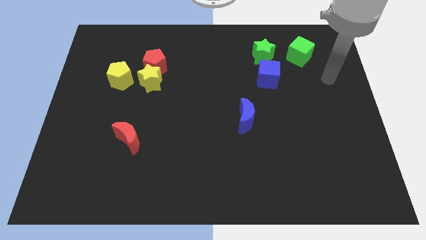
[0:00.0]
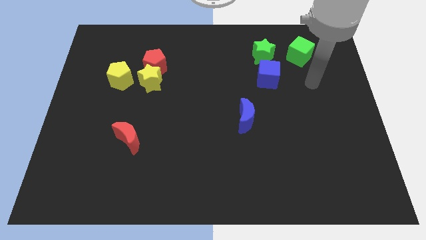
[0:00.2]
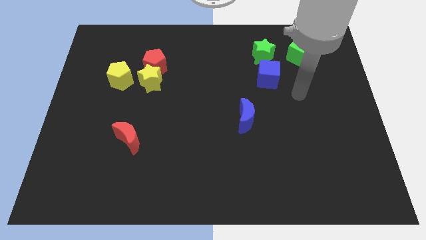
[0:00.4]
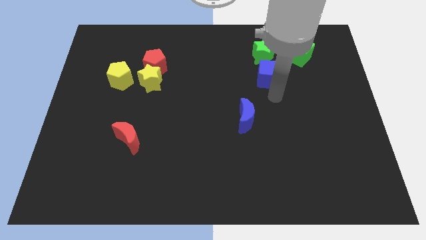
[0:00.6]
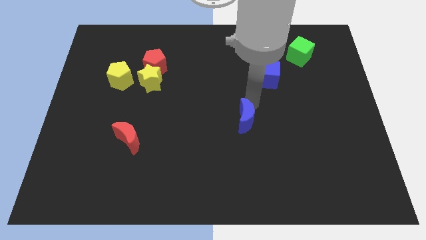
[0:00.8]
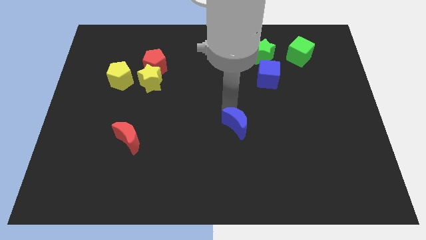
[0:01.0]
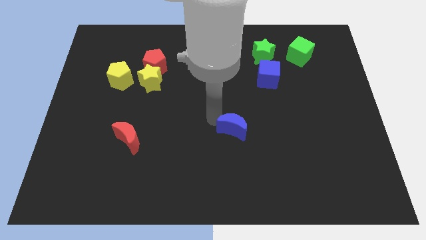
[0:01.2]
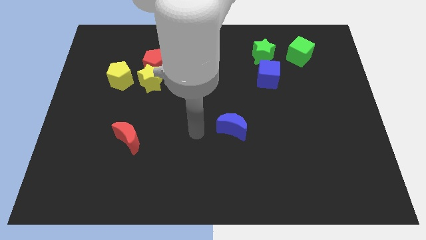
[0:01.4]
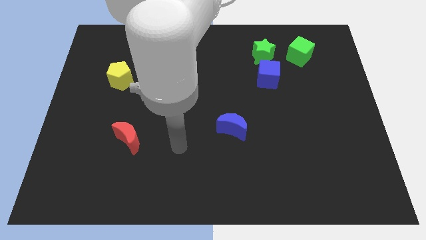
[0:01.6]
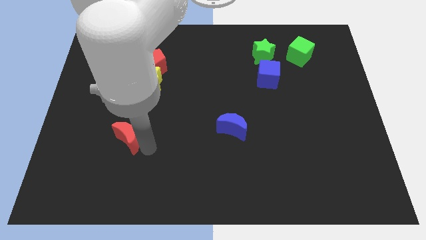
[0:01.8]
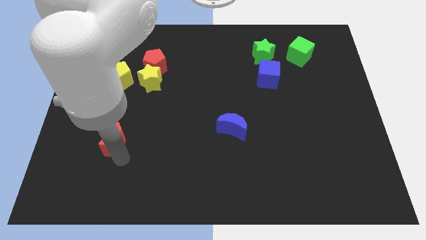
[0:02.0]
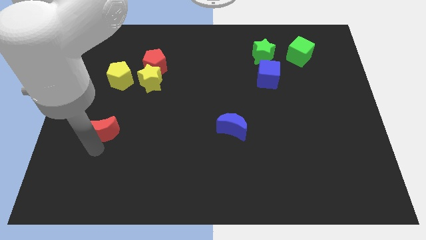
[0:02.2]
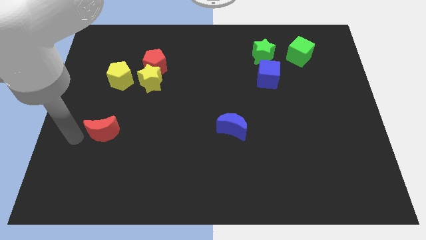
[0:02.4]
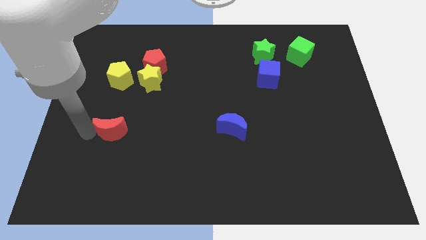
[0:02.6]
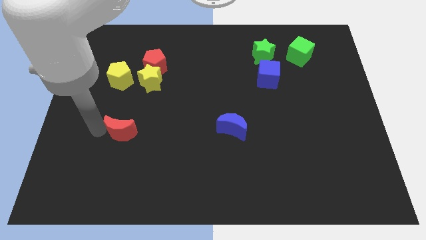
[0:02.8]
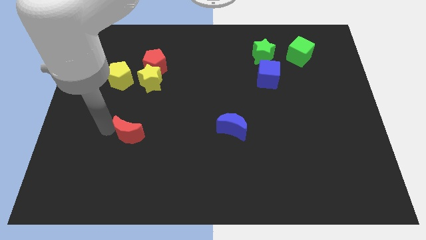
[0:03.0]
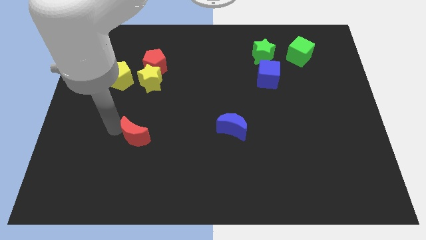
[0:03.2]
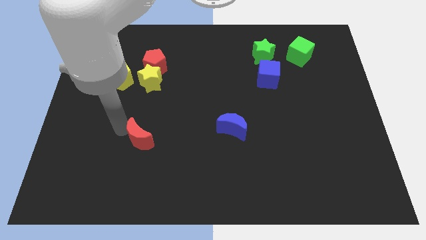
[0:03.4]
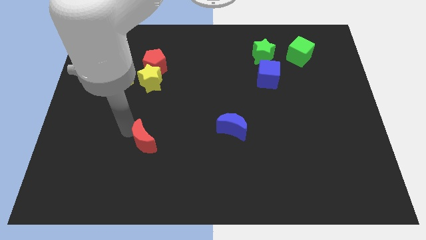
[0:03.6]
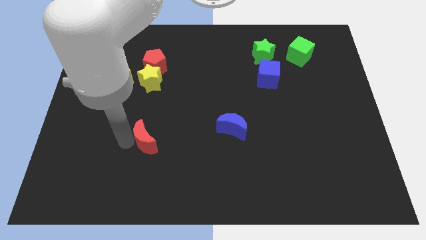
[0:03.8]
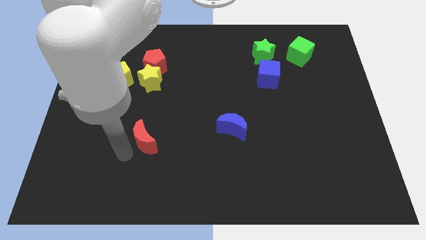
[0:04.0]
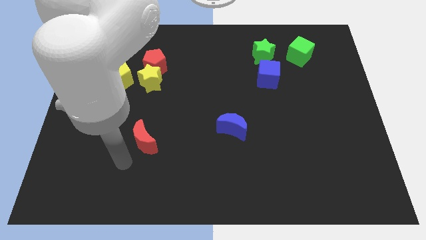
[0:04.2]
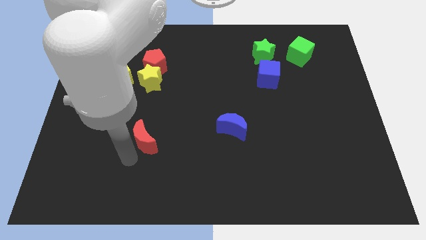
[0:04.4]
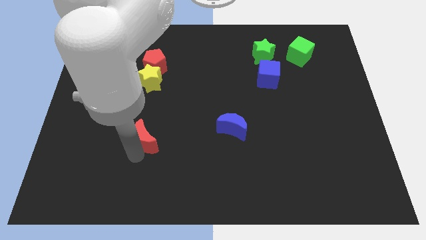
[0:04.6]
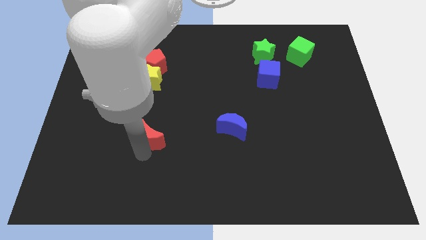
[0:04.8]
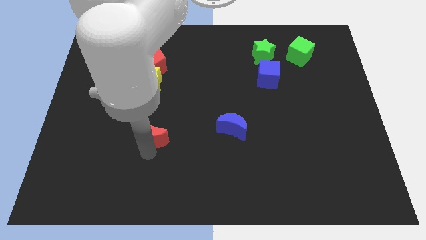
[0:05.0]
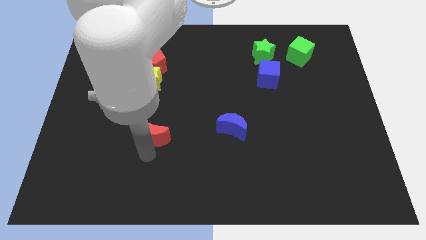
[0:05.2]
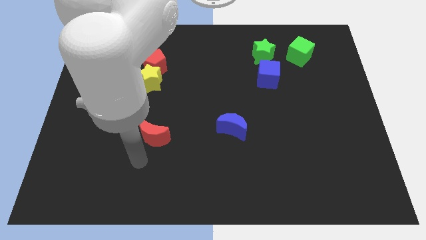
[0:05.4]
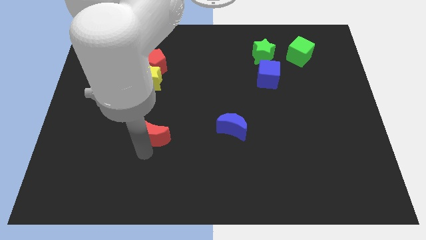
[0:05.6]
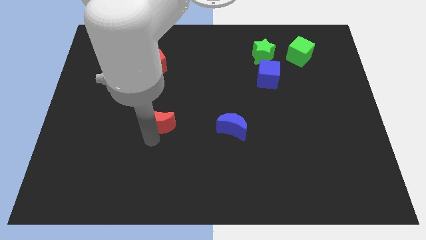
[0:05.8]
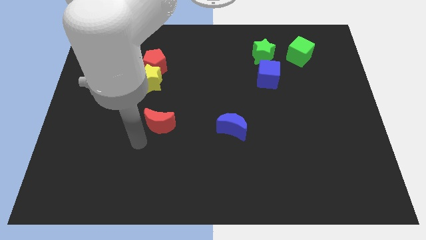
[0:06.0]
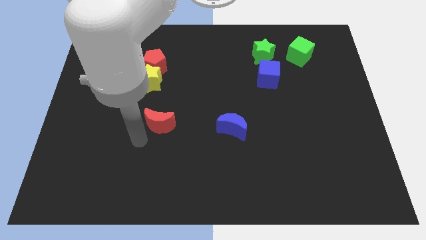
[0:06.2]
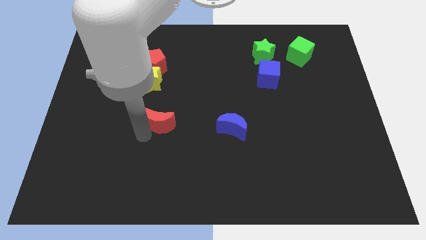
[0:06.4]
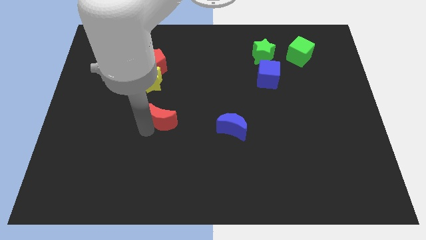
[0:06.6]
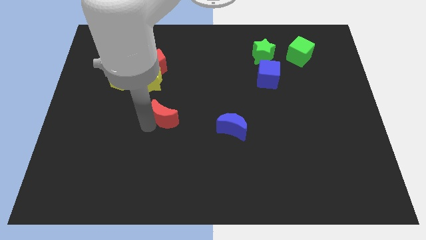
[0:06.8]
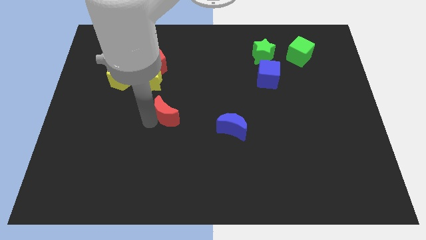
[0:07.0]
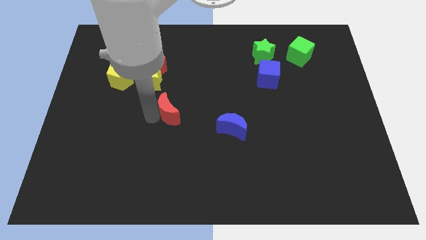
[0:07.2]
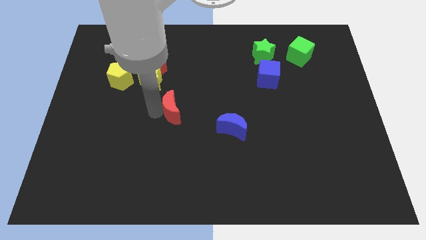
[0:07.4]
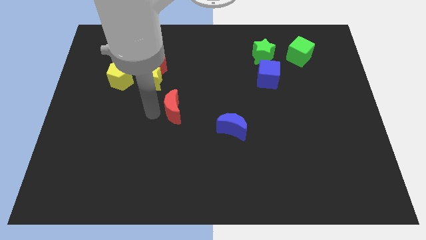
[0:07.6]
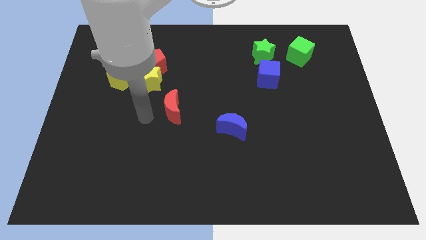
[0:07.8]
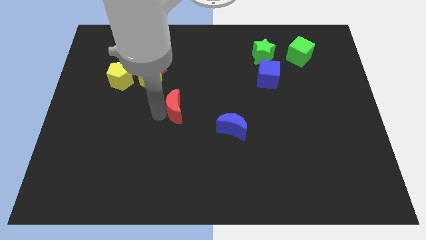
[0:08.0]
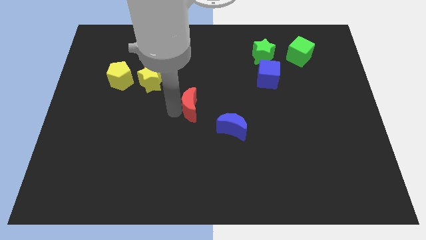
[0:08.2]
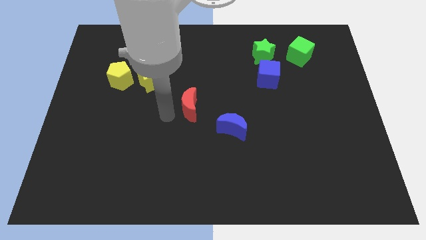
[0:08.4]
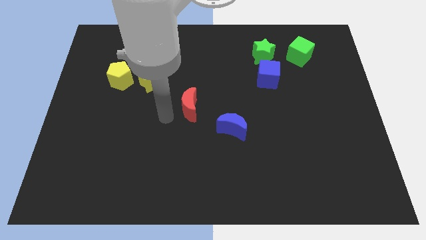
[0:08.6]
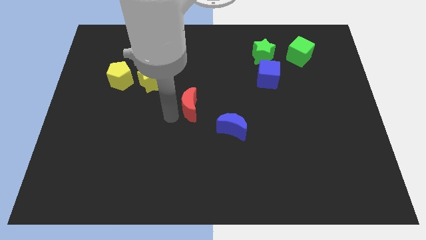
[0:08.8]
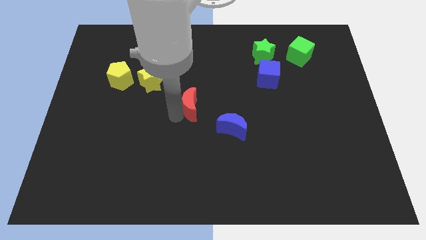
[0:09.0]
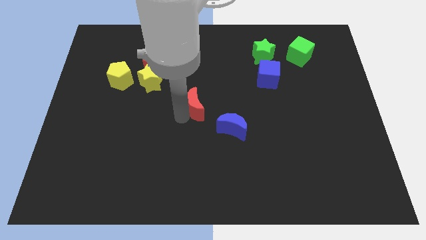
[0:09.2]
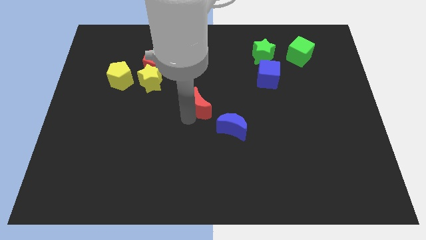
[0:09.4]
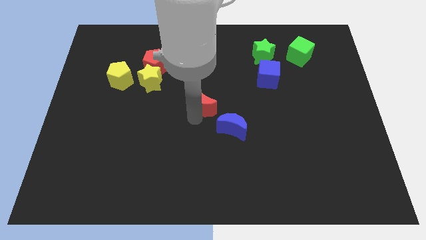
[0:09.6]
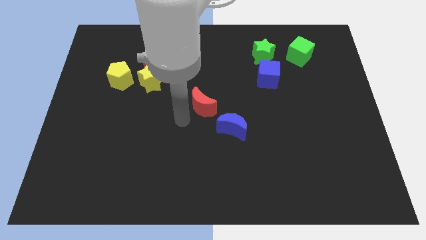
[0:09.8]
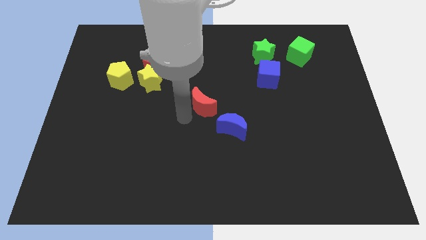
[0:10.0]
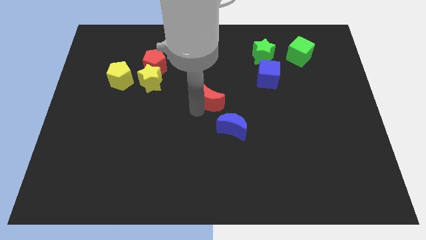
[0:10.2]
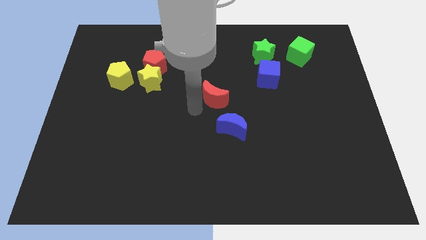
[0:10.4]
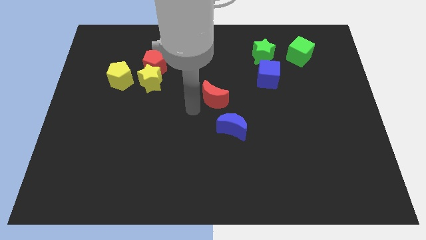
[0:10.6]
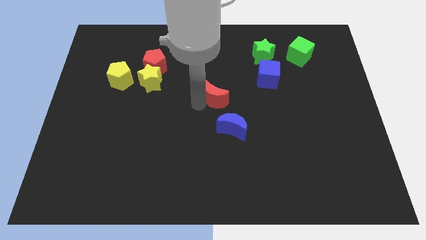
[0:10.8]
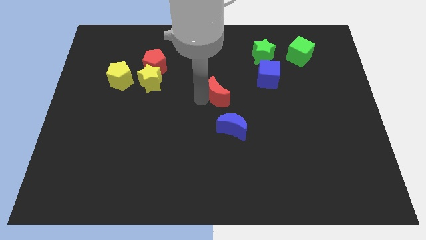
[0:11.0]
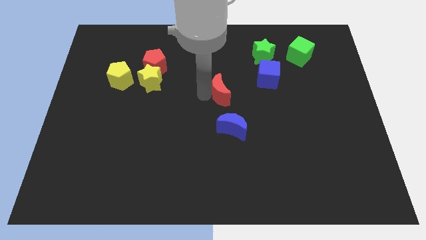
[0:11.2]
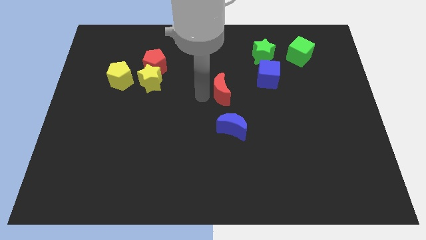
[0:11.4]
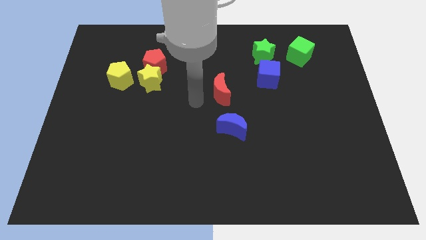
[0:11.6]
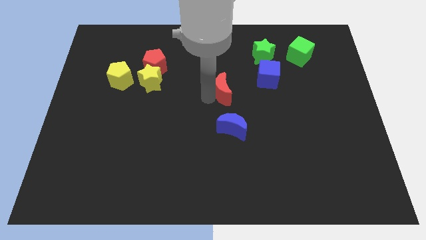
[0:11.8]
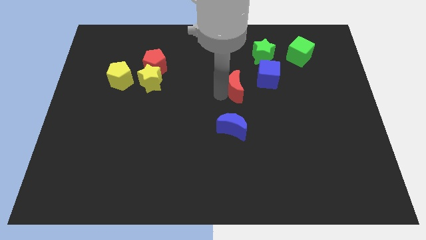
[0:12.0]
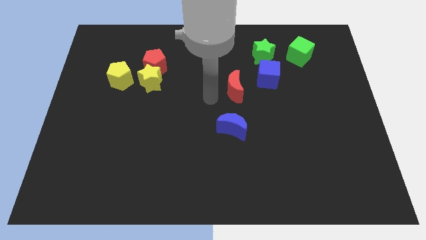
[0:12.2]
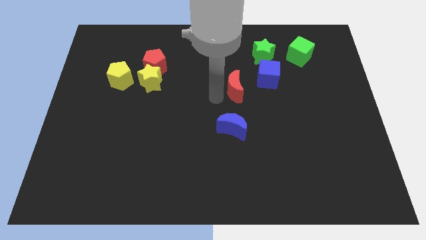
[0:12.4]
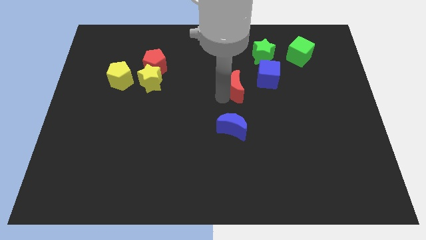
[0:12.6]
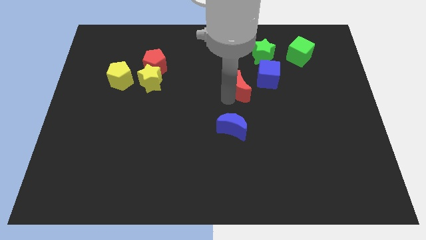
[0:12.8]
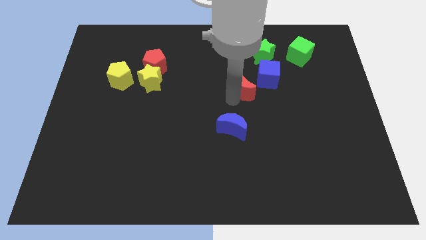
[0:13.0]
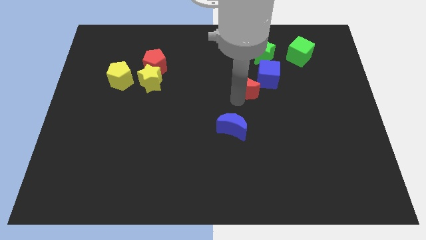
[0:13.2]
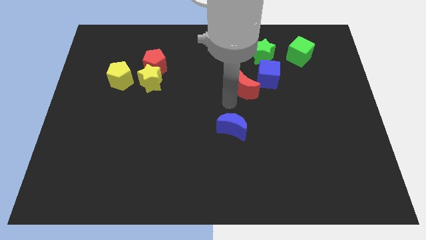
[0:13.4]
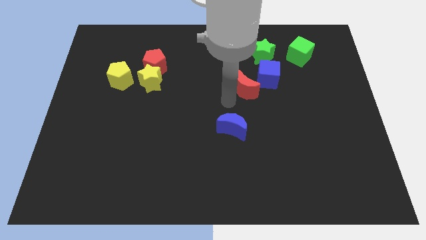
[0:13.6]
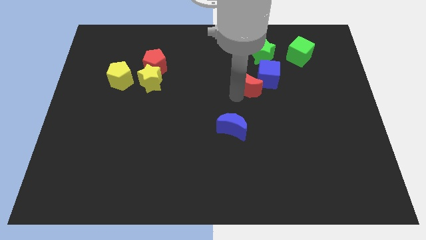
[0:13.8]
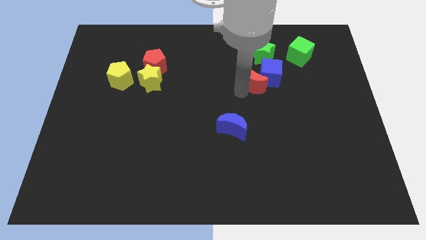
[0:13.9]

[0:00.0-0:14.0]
move the red moon close to the blue cube
